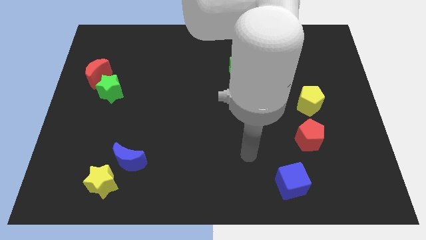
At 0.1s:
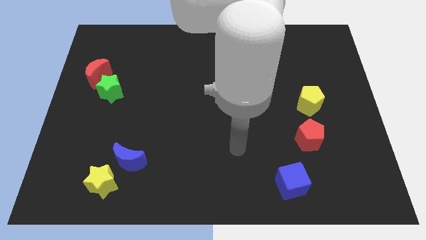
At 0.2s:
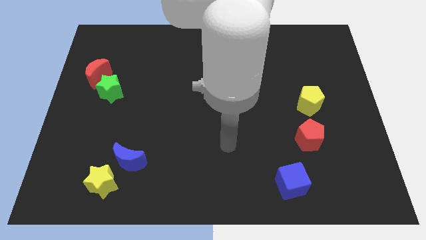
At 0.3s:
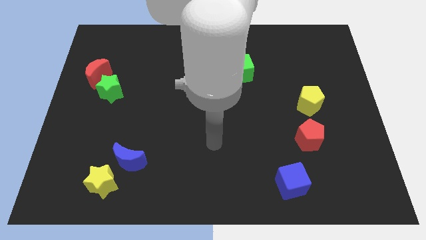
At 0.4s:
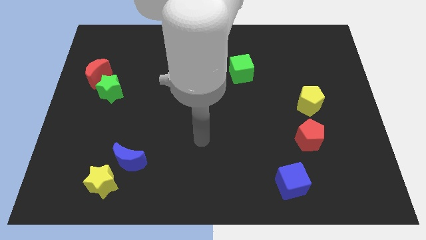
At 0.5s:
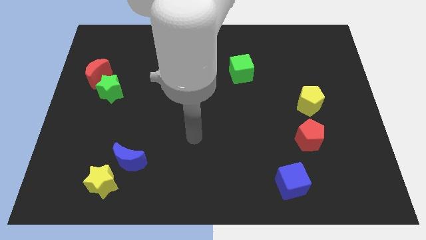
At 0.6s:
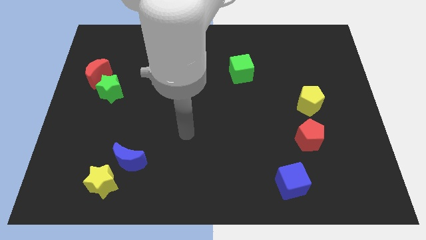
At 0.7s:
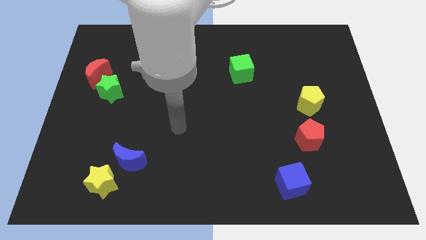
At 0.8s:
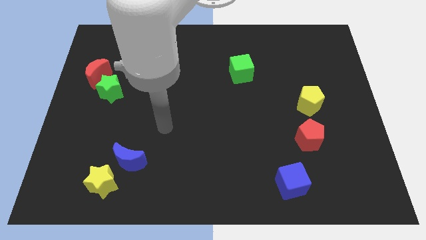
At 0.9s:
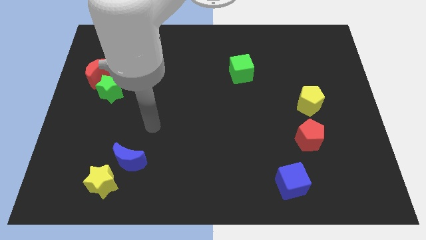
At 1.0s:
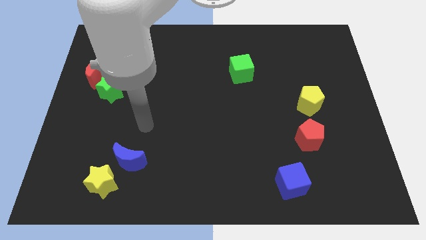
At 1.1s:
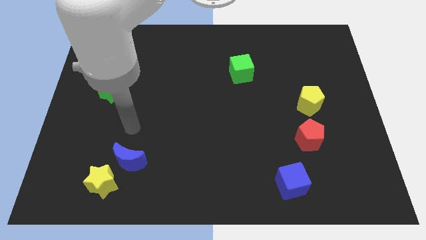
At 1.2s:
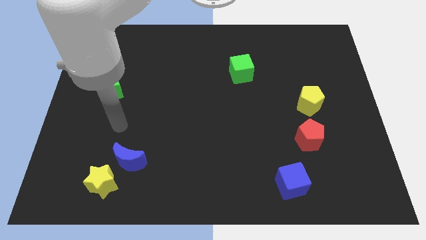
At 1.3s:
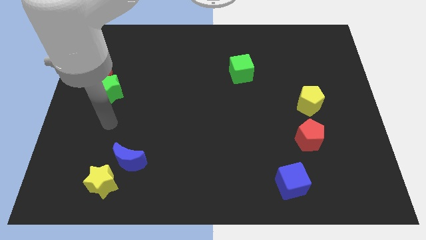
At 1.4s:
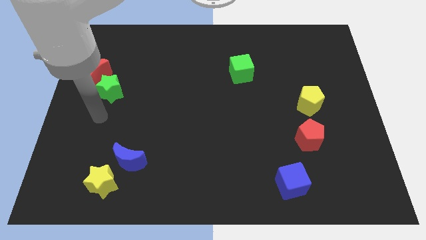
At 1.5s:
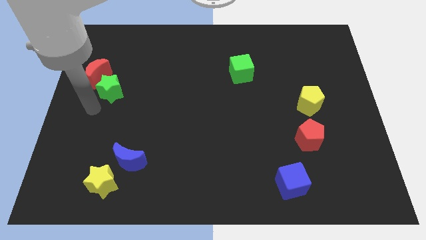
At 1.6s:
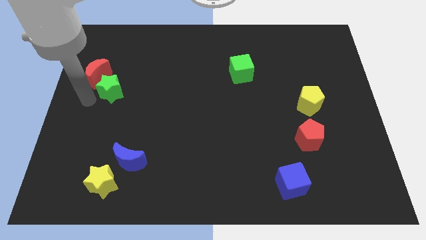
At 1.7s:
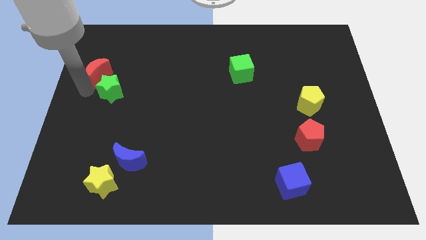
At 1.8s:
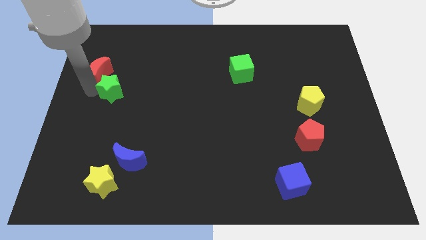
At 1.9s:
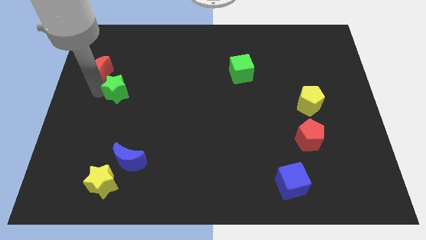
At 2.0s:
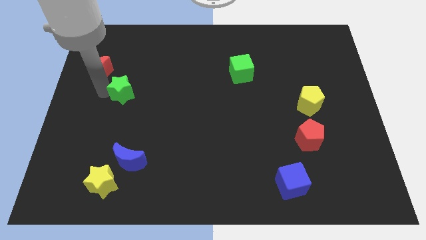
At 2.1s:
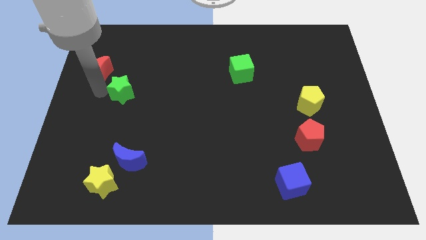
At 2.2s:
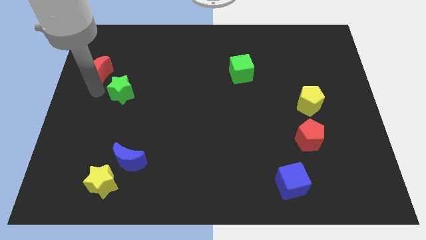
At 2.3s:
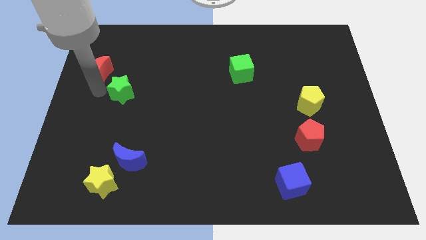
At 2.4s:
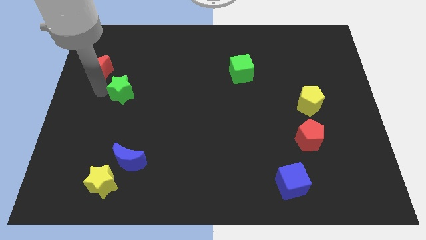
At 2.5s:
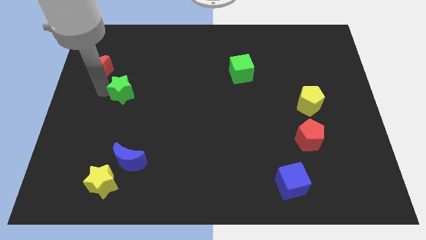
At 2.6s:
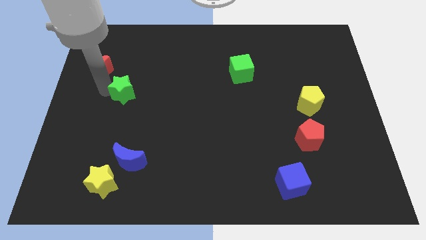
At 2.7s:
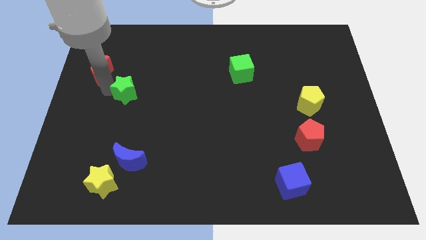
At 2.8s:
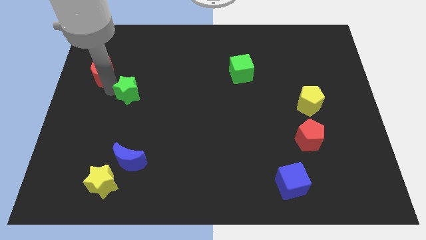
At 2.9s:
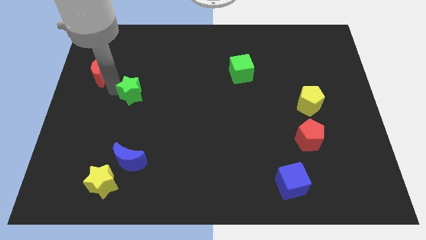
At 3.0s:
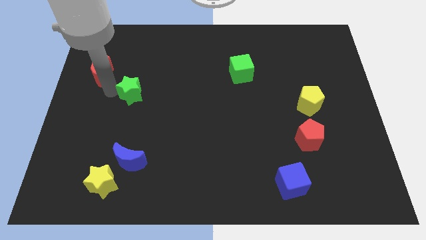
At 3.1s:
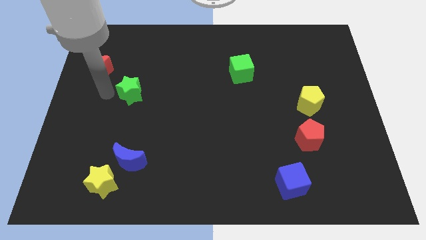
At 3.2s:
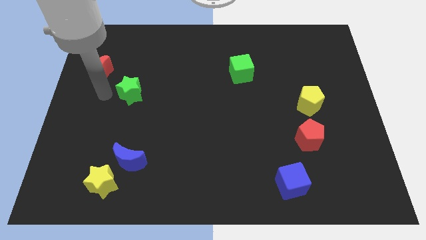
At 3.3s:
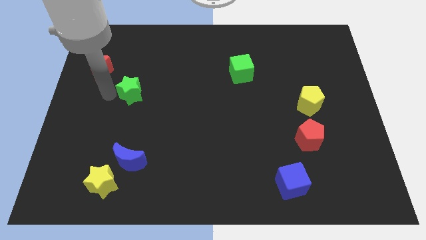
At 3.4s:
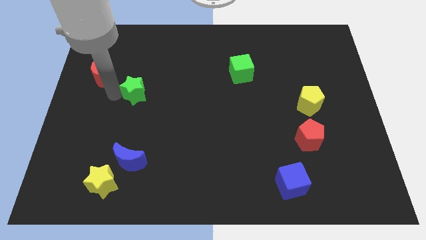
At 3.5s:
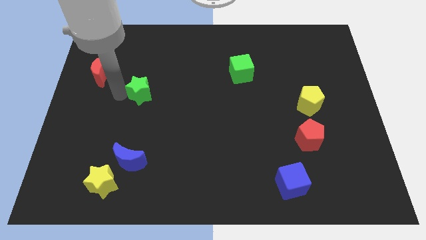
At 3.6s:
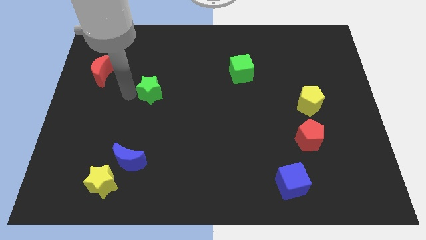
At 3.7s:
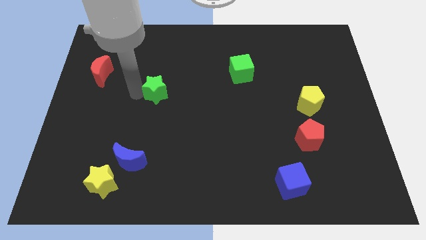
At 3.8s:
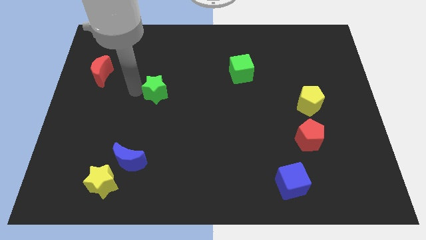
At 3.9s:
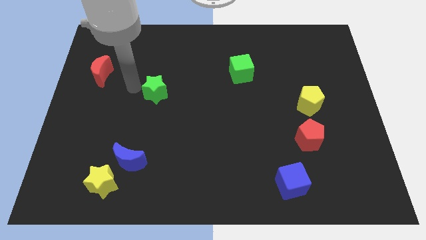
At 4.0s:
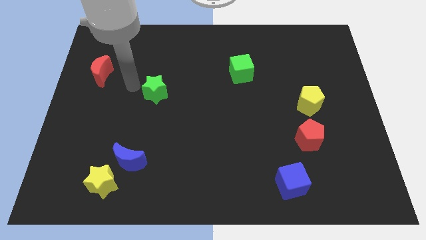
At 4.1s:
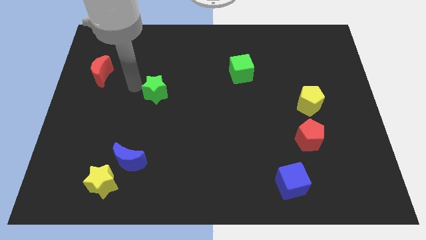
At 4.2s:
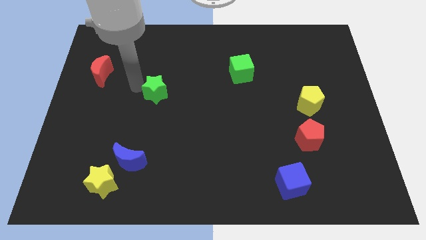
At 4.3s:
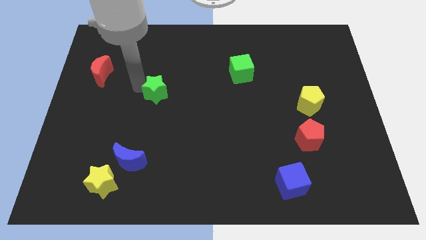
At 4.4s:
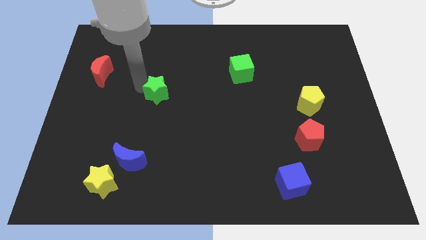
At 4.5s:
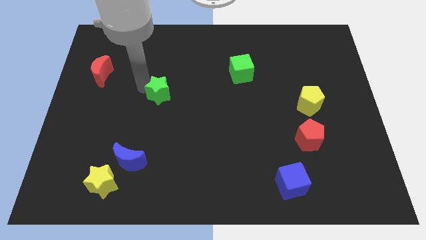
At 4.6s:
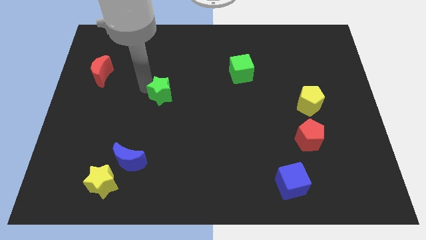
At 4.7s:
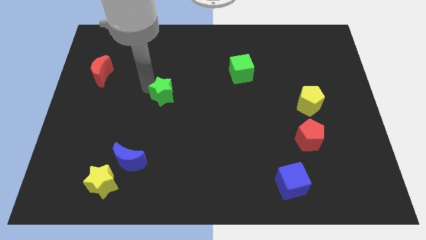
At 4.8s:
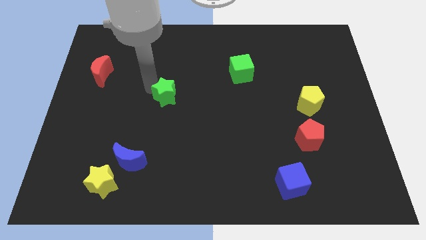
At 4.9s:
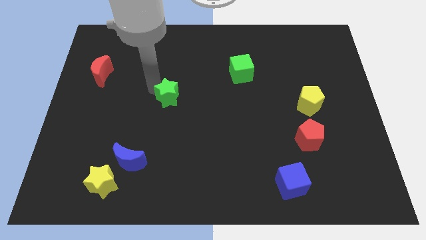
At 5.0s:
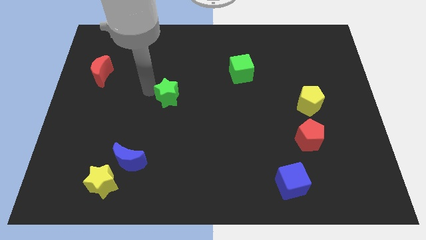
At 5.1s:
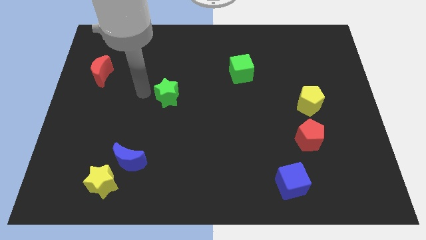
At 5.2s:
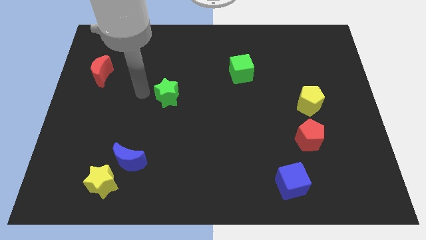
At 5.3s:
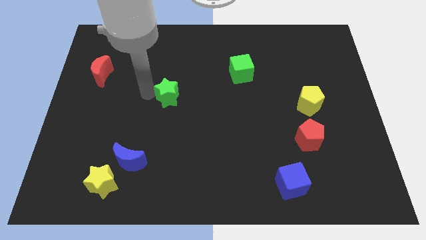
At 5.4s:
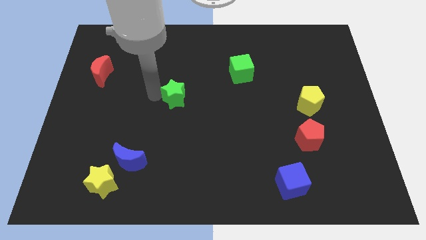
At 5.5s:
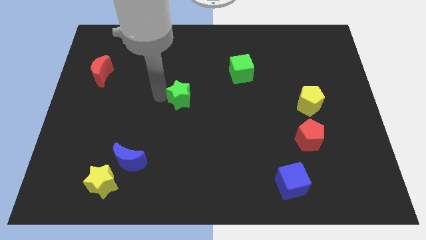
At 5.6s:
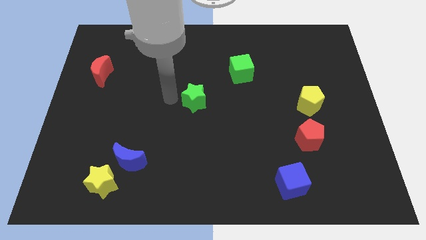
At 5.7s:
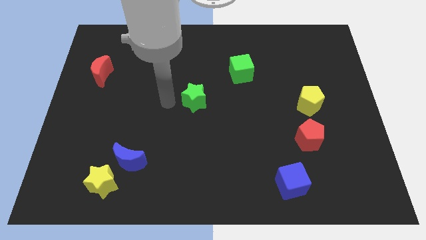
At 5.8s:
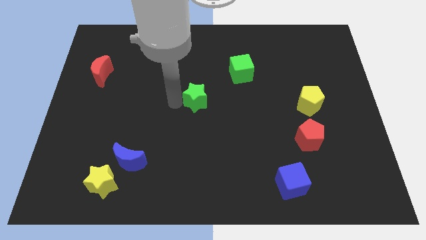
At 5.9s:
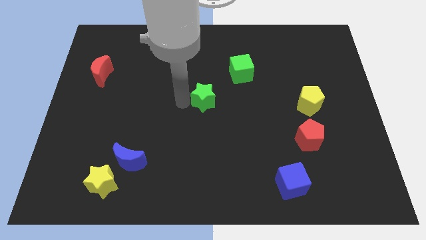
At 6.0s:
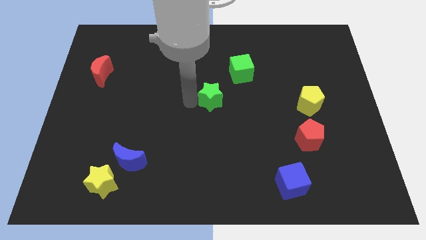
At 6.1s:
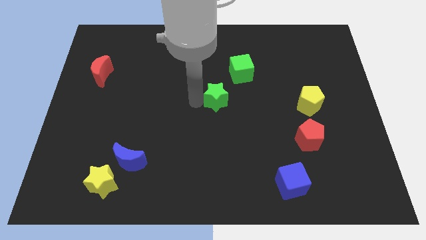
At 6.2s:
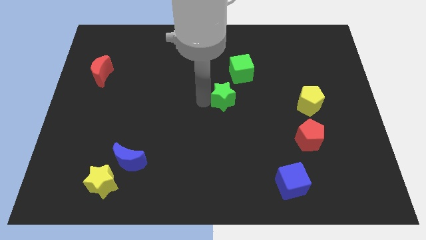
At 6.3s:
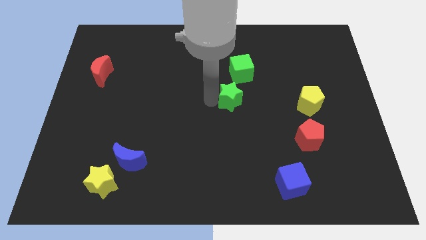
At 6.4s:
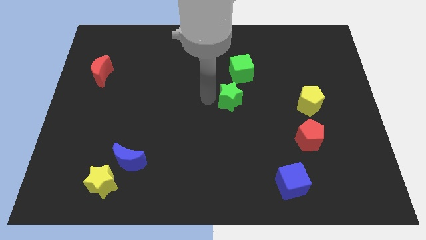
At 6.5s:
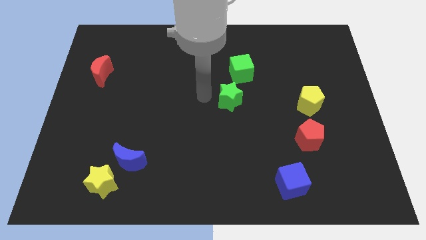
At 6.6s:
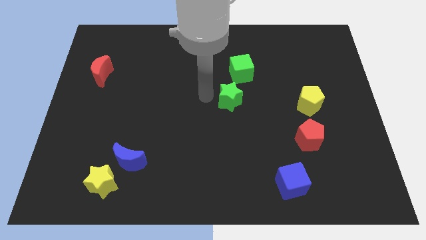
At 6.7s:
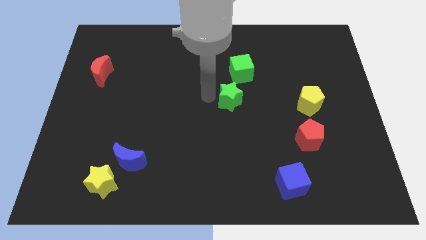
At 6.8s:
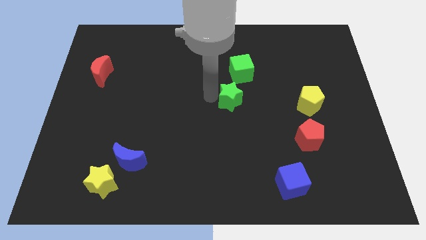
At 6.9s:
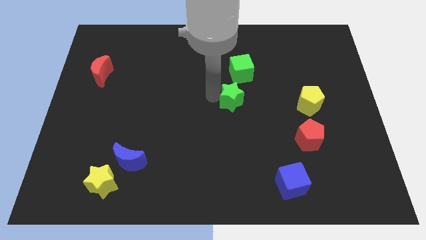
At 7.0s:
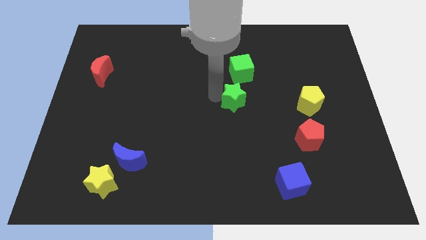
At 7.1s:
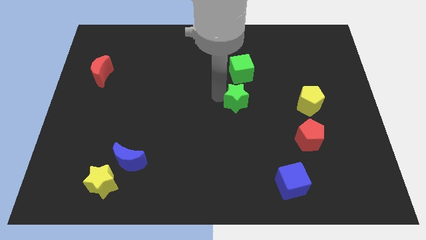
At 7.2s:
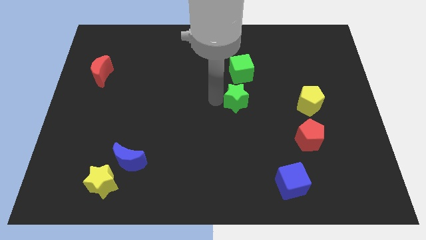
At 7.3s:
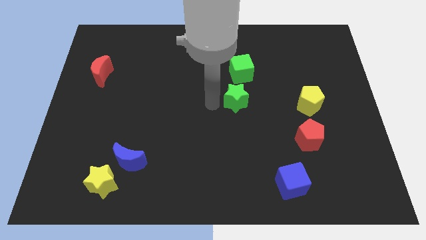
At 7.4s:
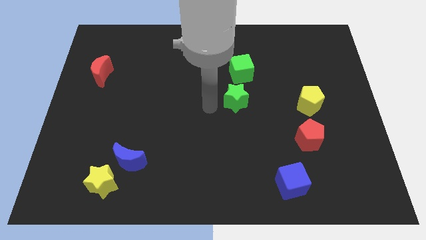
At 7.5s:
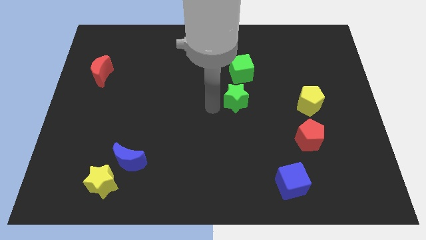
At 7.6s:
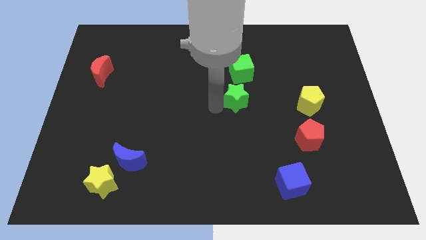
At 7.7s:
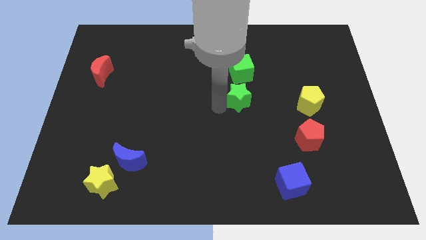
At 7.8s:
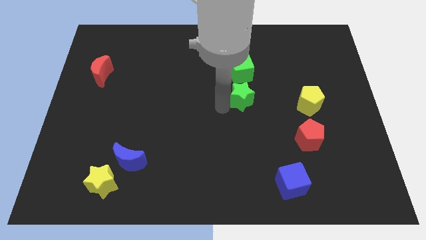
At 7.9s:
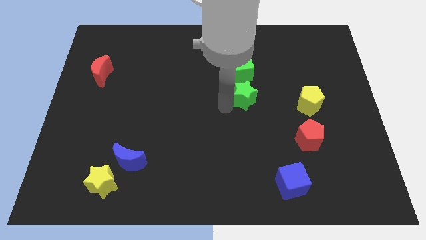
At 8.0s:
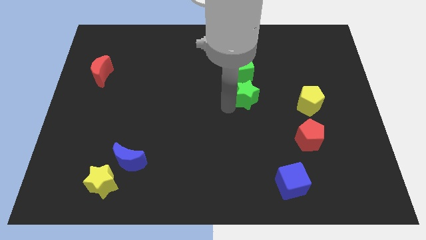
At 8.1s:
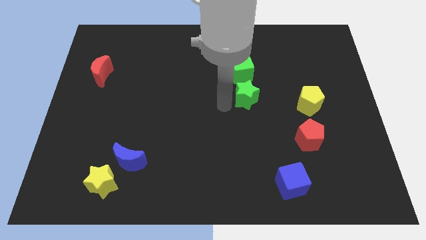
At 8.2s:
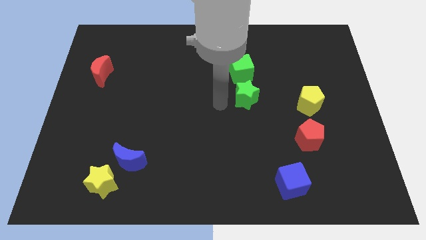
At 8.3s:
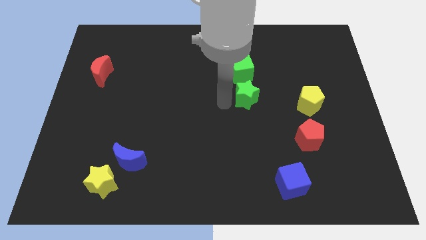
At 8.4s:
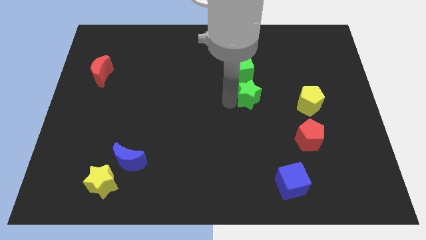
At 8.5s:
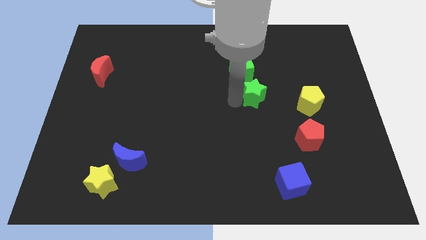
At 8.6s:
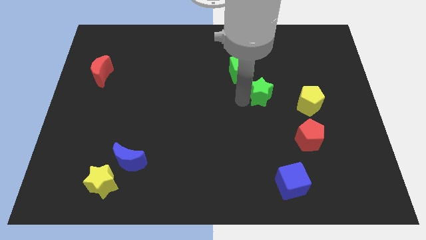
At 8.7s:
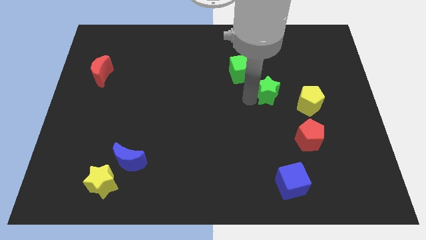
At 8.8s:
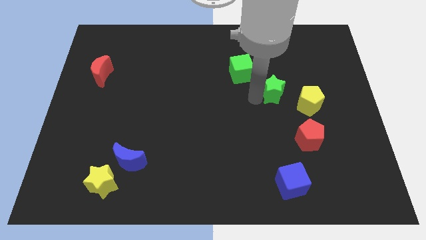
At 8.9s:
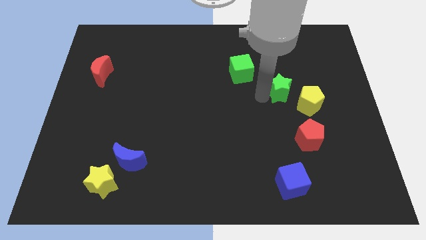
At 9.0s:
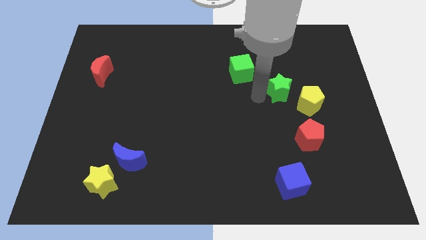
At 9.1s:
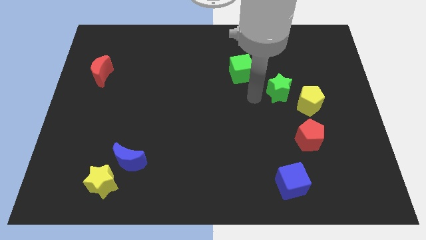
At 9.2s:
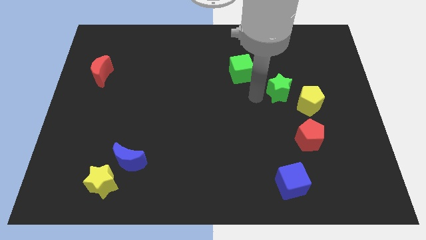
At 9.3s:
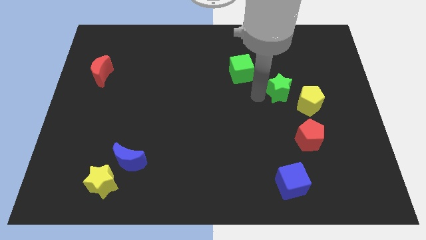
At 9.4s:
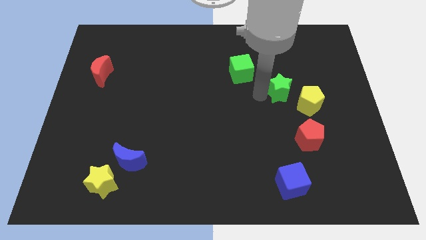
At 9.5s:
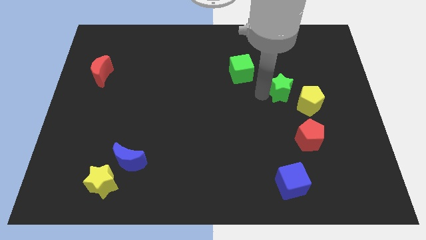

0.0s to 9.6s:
move the green star to the top of the red pentagon
